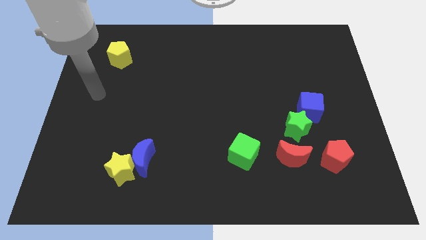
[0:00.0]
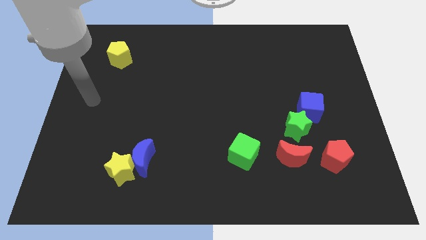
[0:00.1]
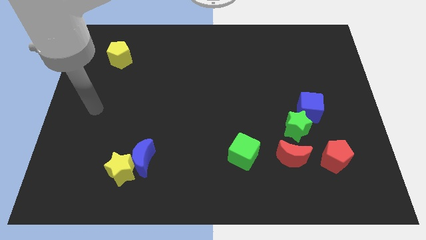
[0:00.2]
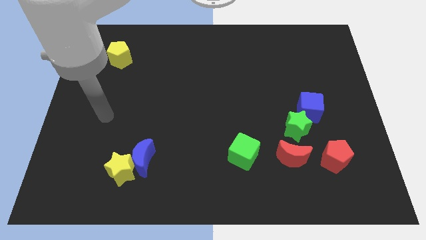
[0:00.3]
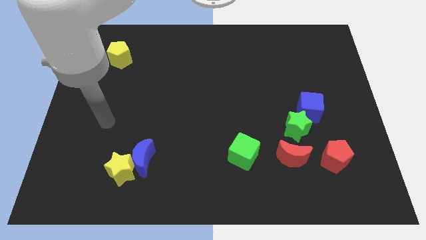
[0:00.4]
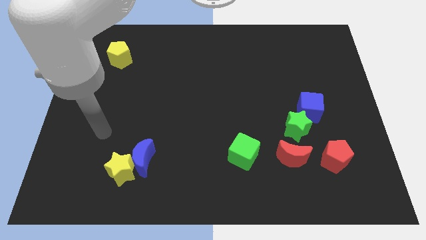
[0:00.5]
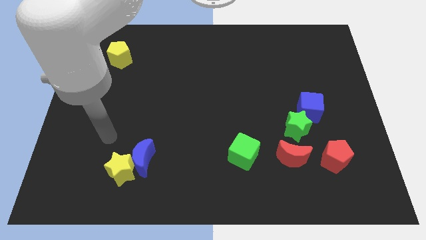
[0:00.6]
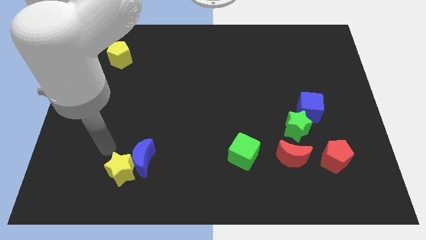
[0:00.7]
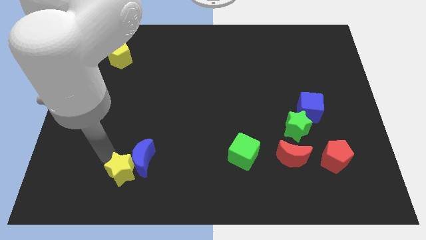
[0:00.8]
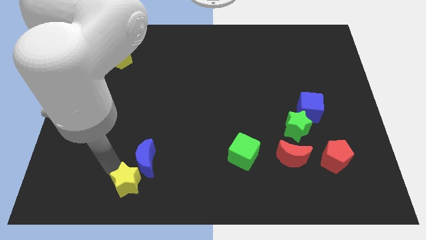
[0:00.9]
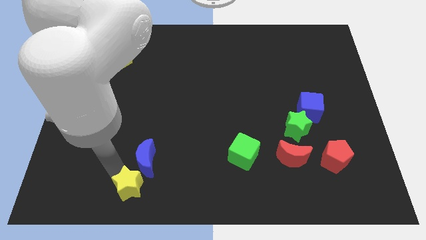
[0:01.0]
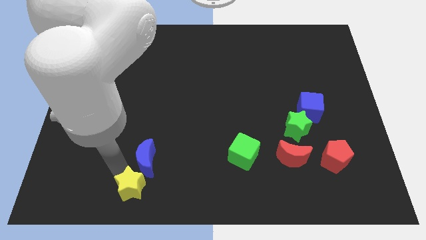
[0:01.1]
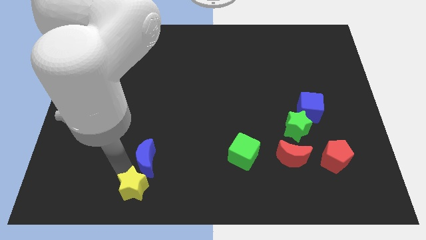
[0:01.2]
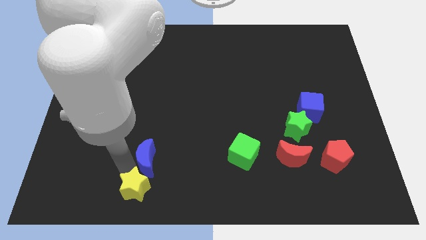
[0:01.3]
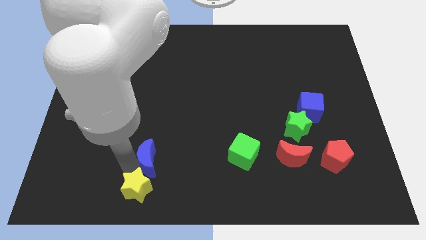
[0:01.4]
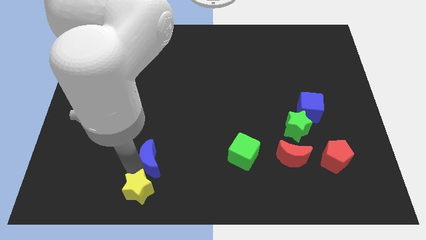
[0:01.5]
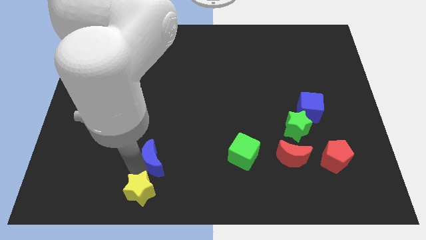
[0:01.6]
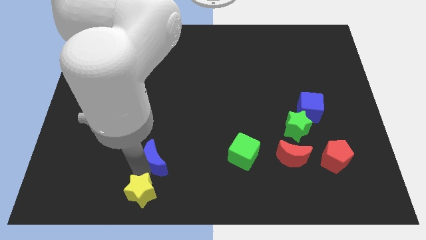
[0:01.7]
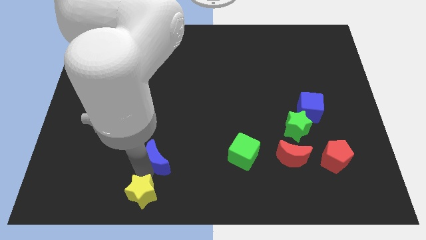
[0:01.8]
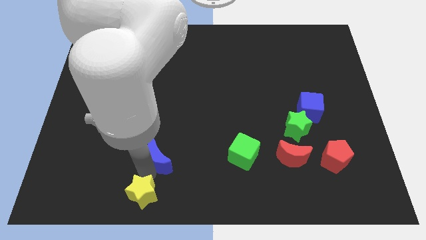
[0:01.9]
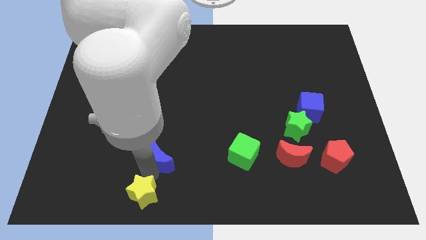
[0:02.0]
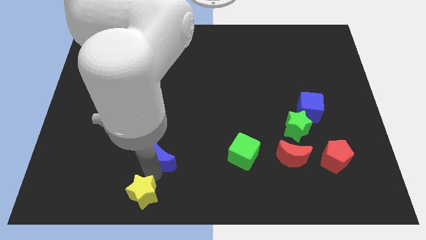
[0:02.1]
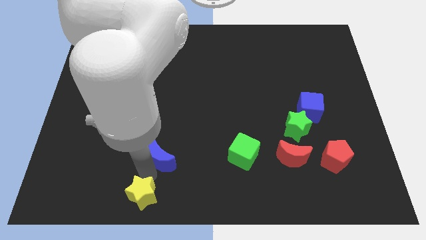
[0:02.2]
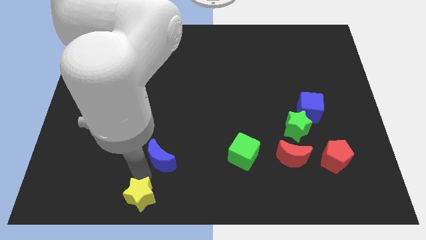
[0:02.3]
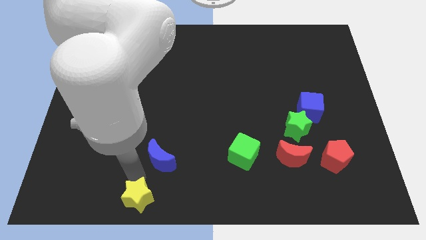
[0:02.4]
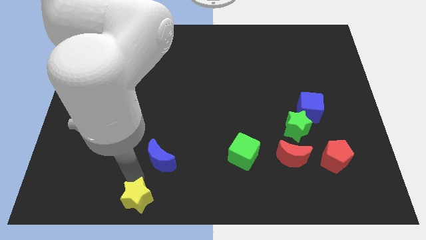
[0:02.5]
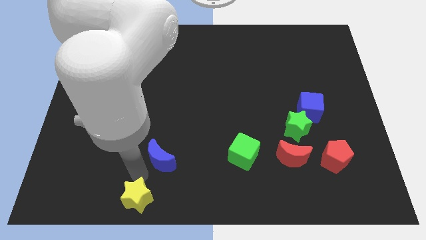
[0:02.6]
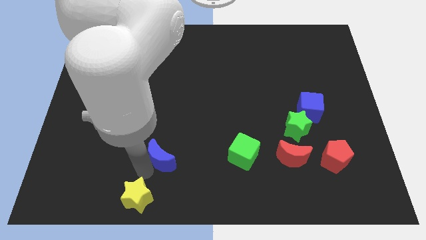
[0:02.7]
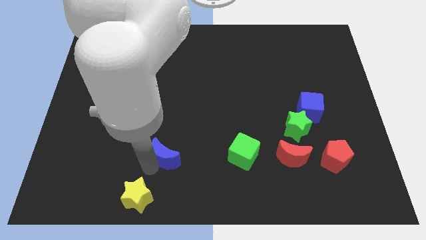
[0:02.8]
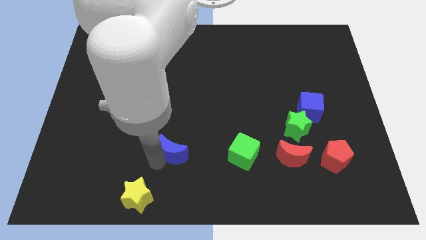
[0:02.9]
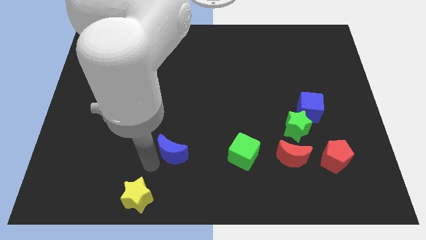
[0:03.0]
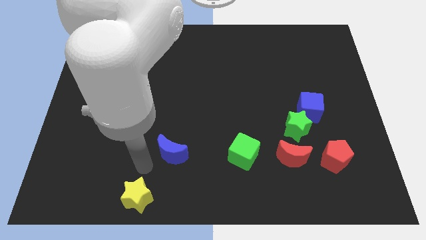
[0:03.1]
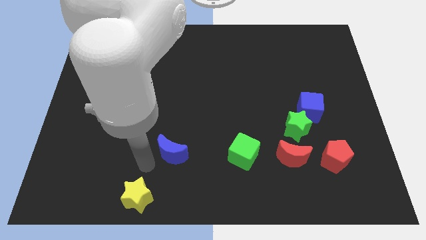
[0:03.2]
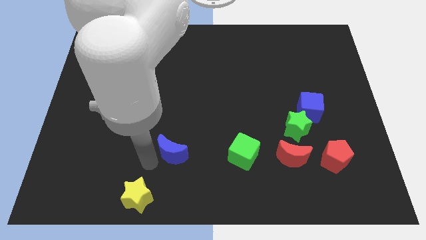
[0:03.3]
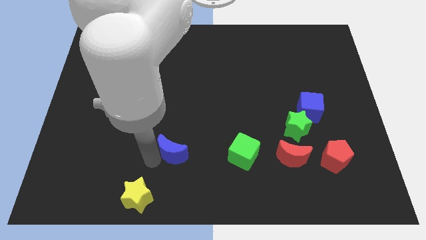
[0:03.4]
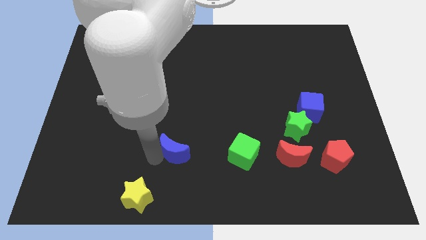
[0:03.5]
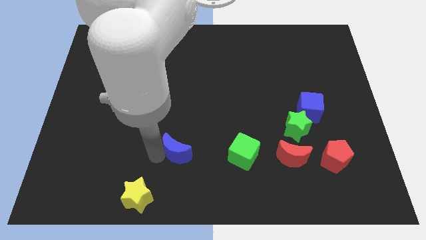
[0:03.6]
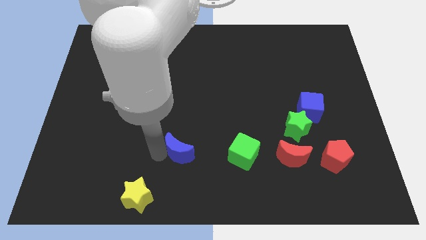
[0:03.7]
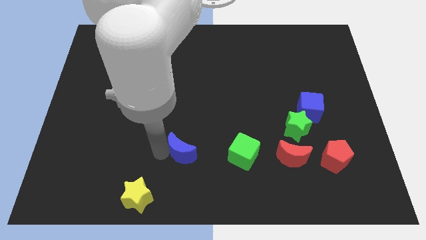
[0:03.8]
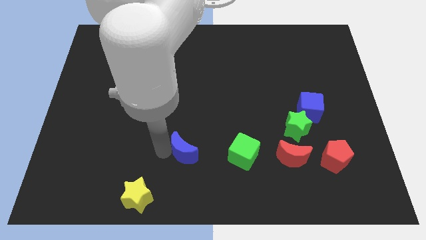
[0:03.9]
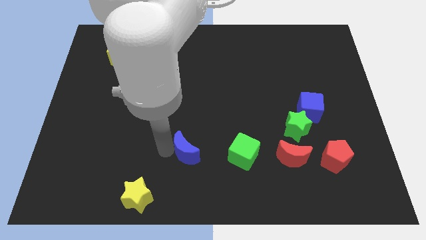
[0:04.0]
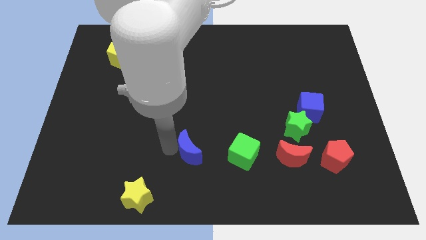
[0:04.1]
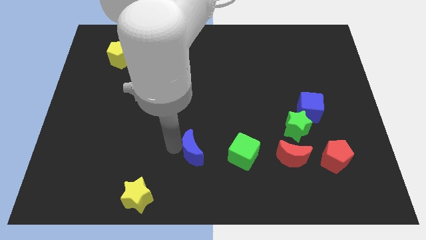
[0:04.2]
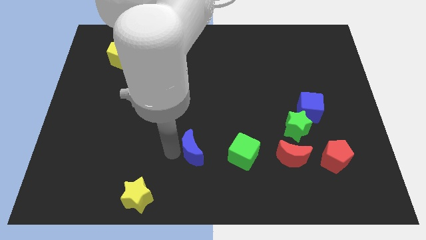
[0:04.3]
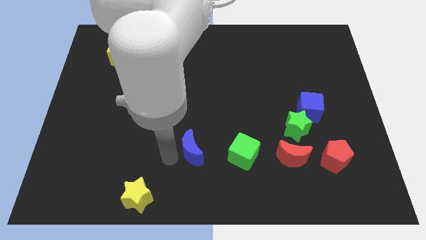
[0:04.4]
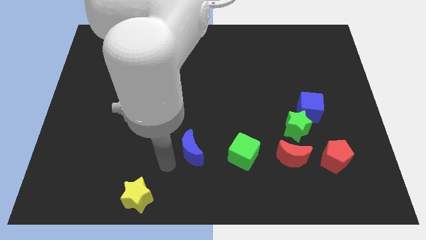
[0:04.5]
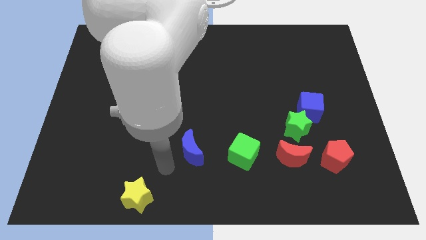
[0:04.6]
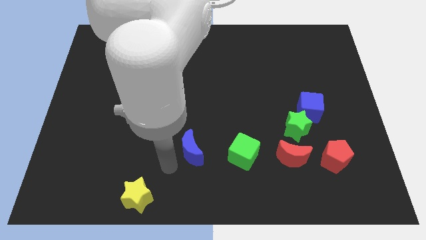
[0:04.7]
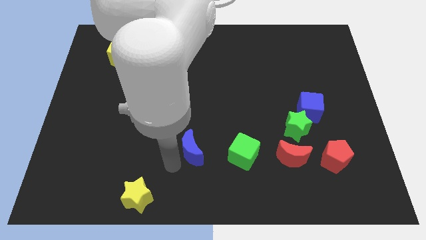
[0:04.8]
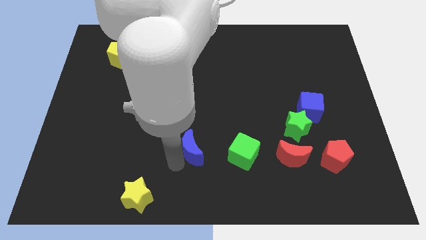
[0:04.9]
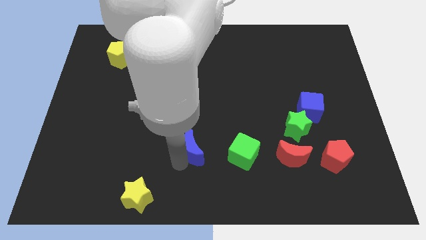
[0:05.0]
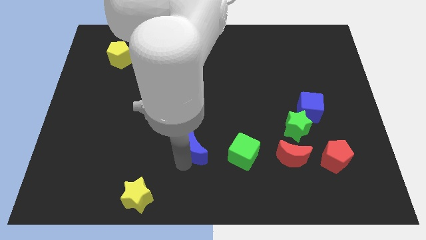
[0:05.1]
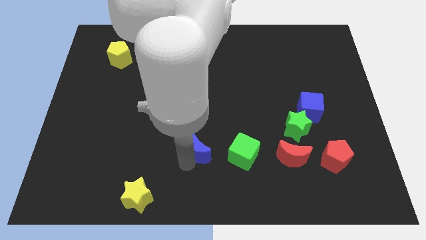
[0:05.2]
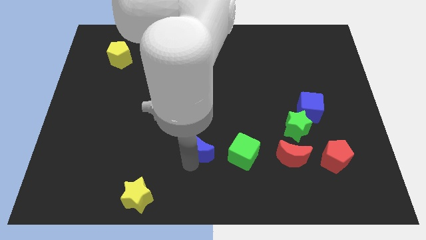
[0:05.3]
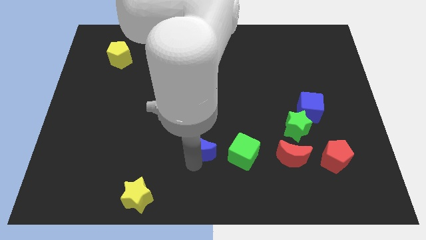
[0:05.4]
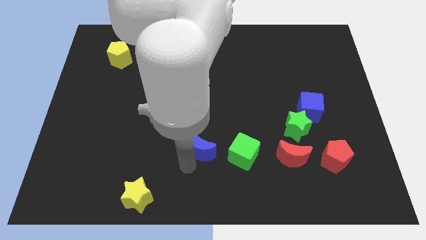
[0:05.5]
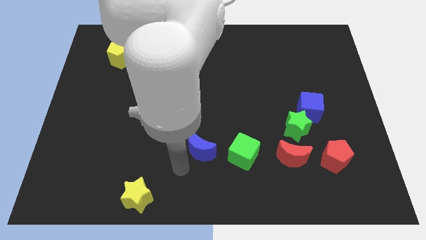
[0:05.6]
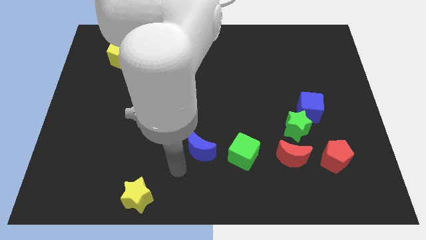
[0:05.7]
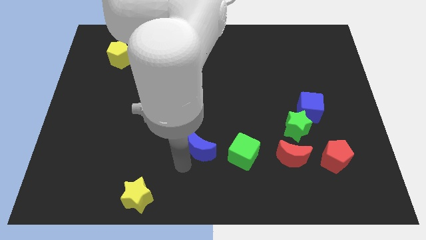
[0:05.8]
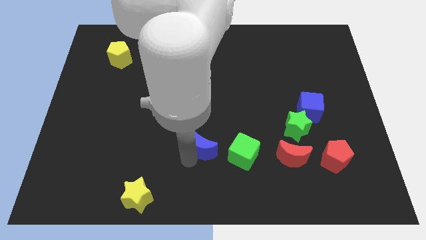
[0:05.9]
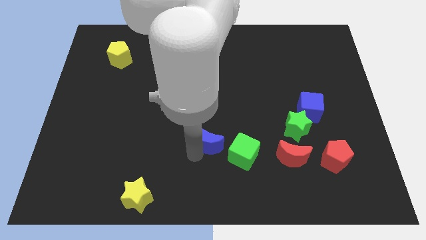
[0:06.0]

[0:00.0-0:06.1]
move the blue moon to the top left of the green cube
